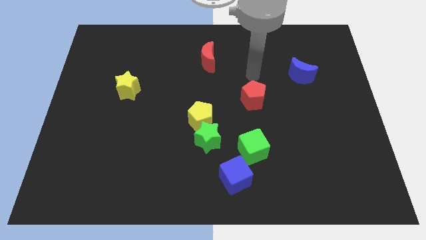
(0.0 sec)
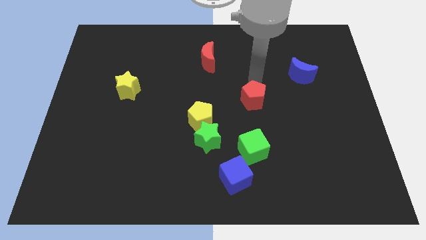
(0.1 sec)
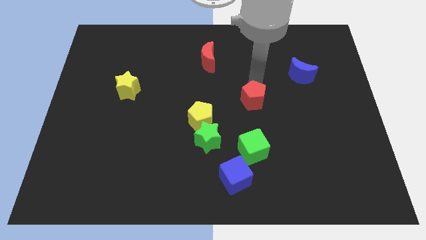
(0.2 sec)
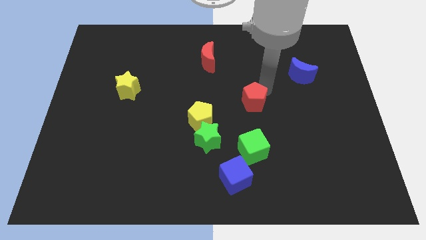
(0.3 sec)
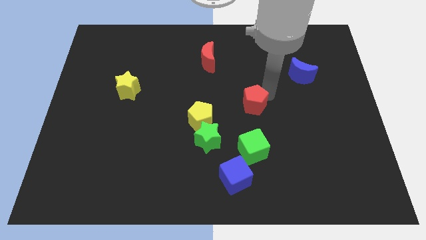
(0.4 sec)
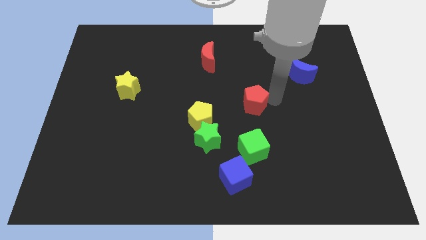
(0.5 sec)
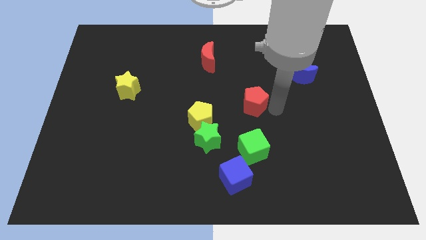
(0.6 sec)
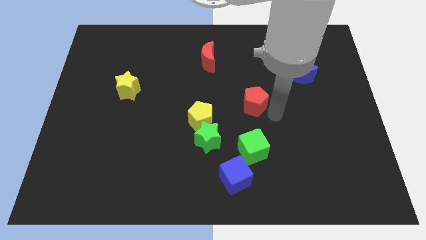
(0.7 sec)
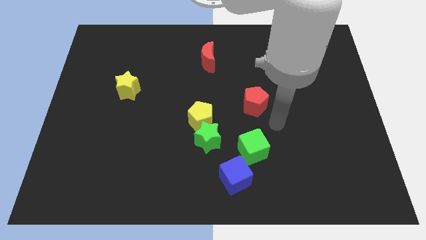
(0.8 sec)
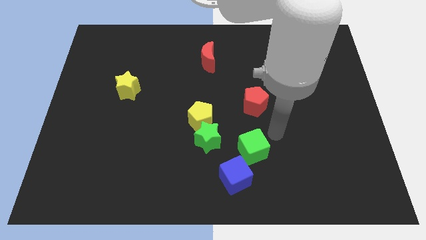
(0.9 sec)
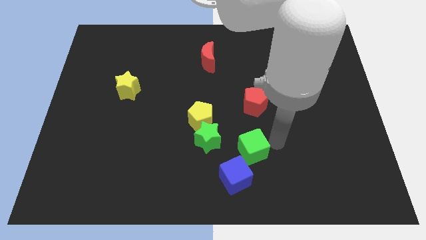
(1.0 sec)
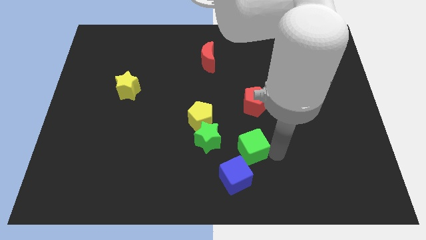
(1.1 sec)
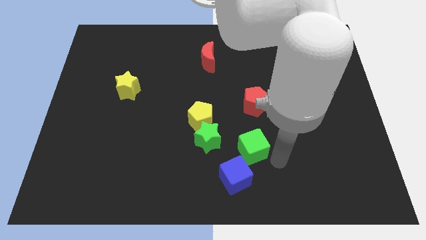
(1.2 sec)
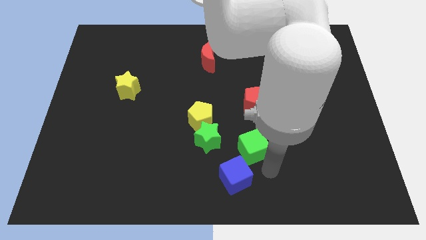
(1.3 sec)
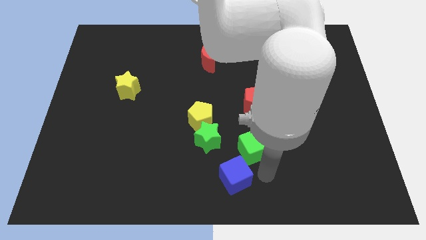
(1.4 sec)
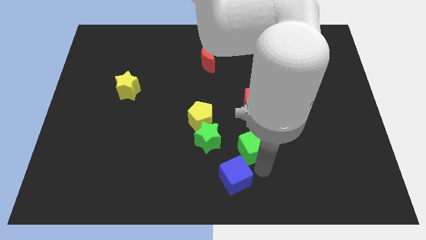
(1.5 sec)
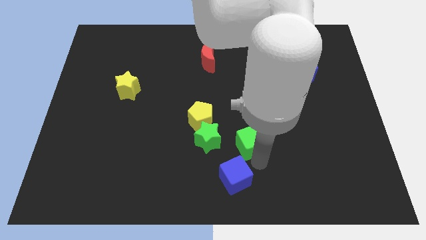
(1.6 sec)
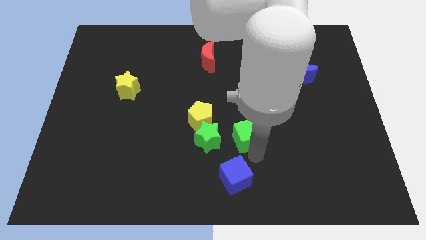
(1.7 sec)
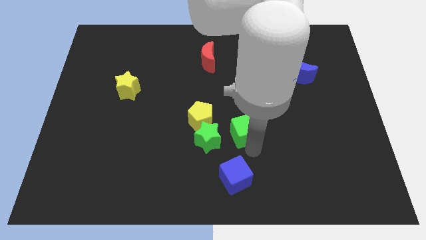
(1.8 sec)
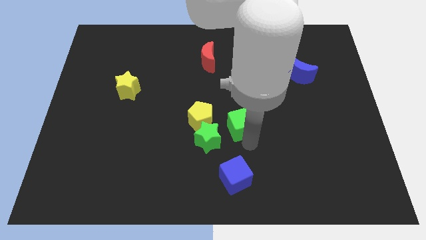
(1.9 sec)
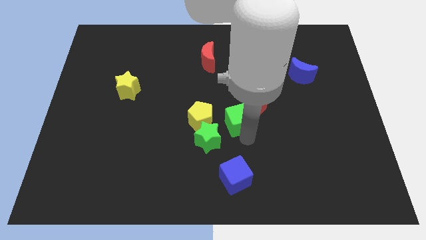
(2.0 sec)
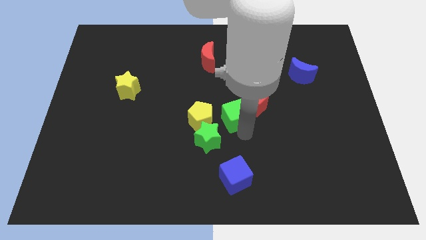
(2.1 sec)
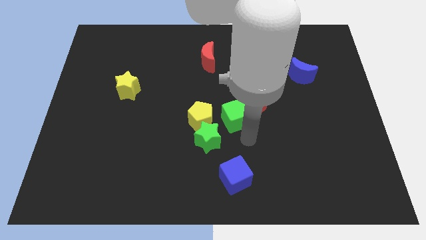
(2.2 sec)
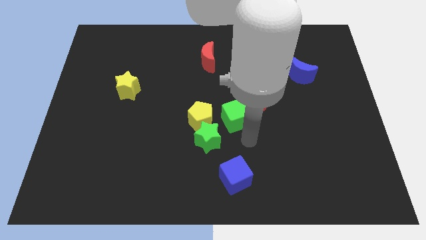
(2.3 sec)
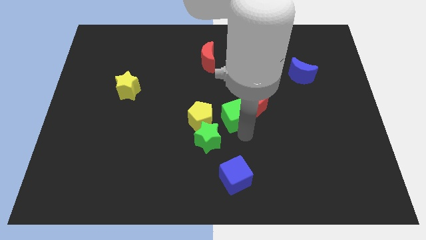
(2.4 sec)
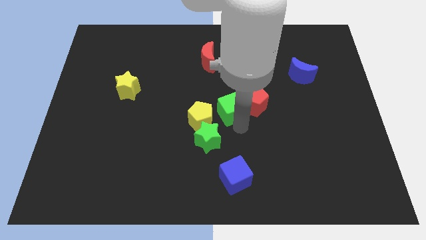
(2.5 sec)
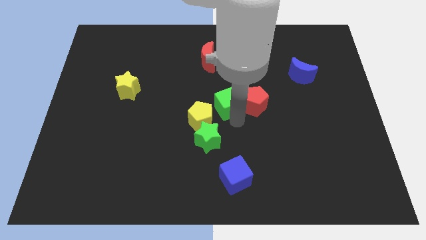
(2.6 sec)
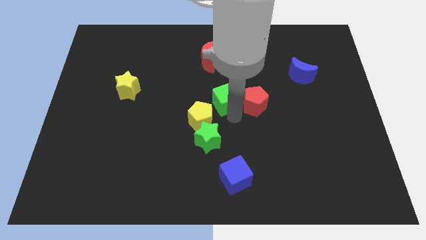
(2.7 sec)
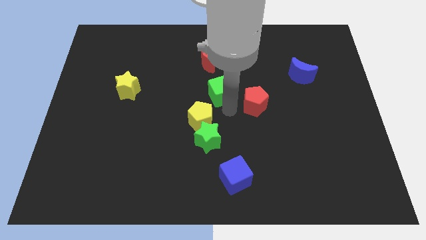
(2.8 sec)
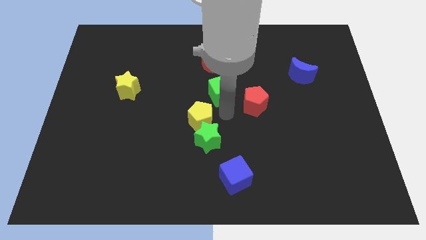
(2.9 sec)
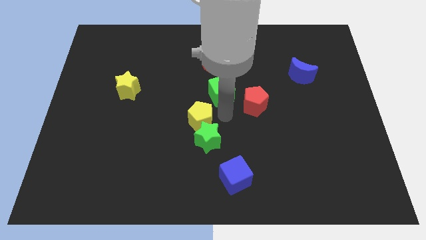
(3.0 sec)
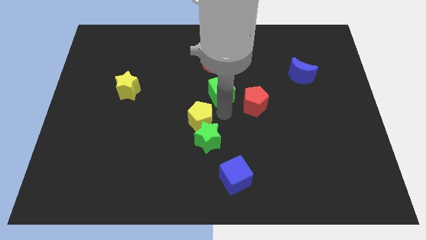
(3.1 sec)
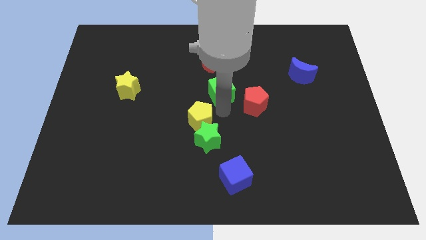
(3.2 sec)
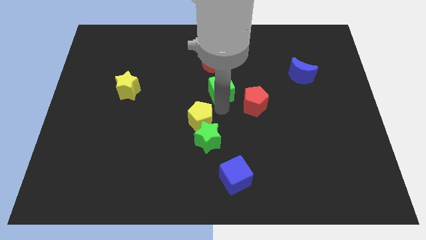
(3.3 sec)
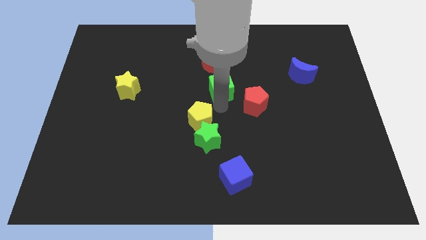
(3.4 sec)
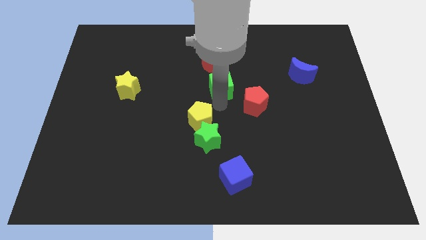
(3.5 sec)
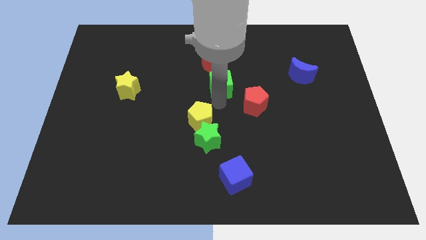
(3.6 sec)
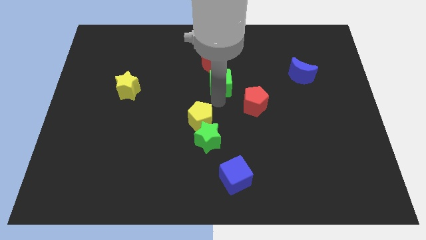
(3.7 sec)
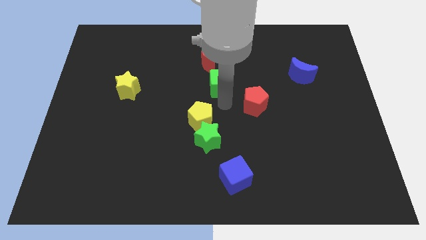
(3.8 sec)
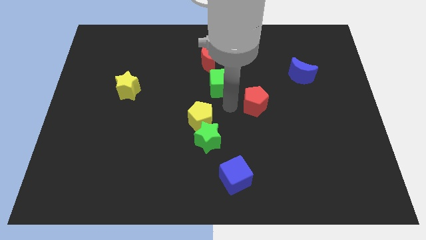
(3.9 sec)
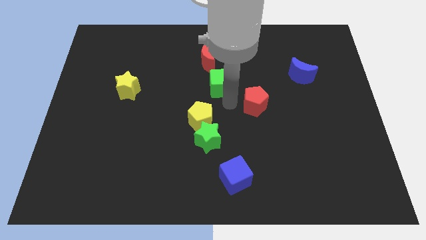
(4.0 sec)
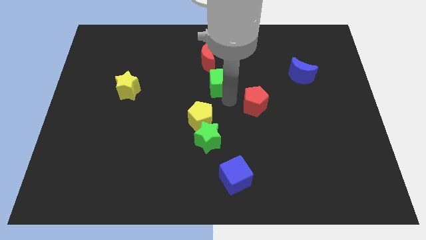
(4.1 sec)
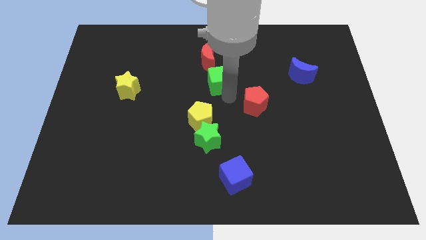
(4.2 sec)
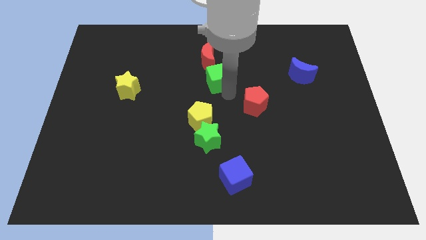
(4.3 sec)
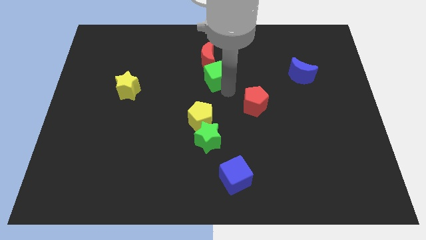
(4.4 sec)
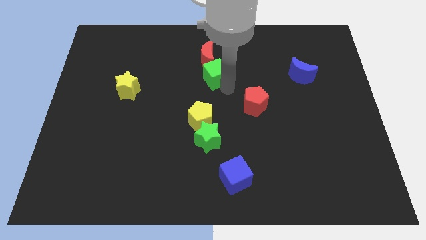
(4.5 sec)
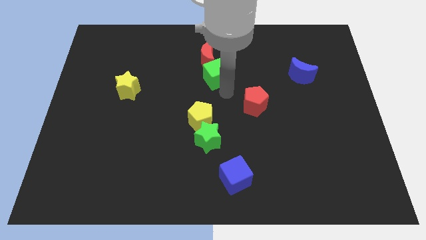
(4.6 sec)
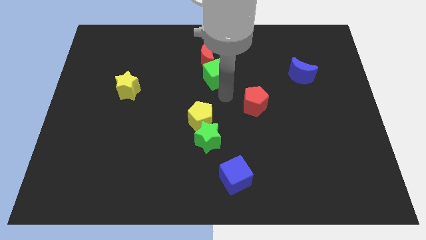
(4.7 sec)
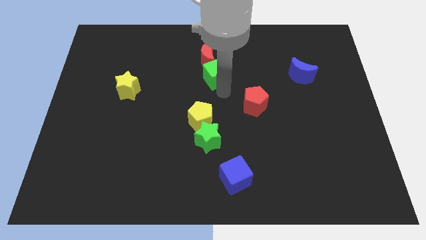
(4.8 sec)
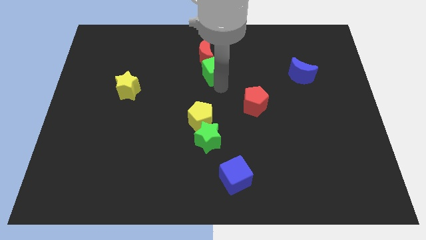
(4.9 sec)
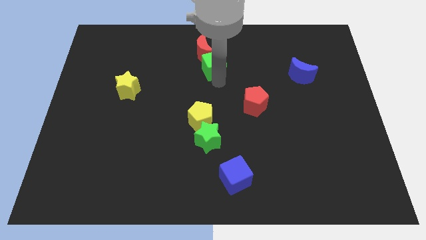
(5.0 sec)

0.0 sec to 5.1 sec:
move the green cube to the red moon

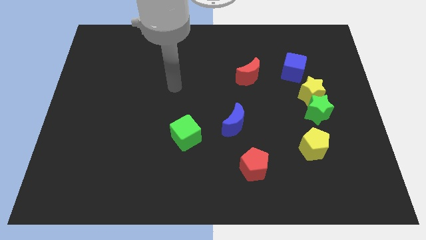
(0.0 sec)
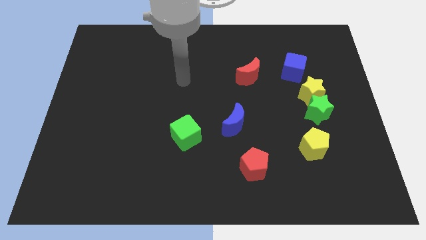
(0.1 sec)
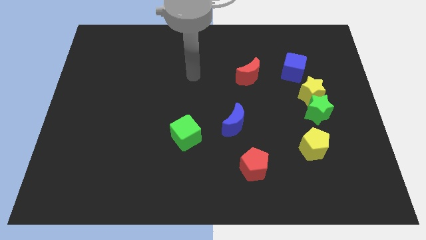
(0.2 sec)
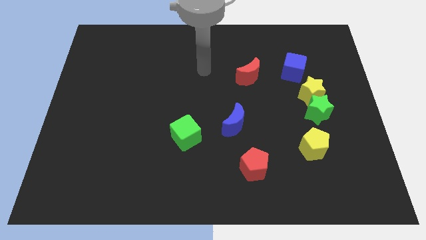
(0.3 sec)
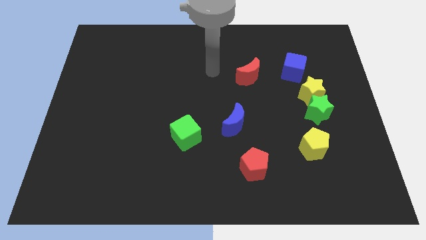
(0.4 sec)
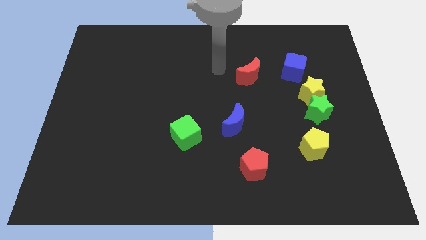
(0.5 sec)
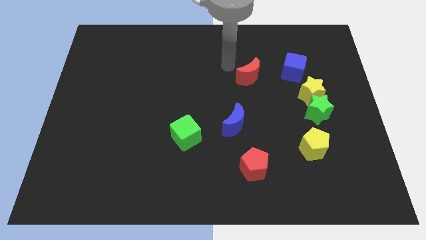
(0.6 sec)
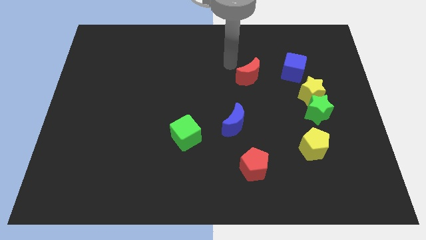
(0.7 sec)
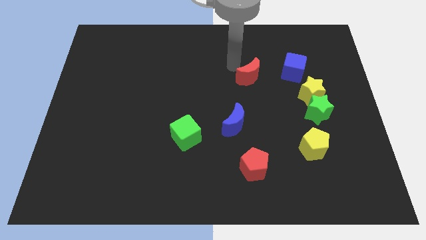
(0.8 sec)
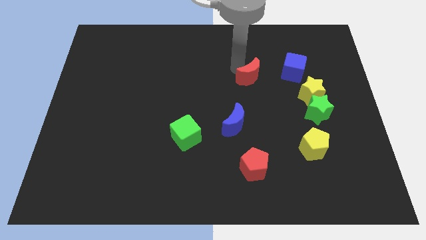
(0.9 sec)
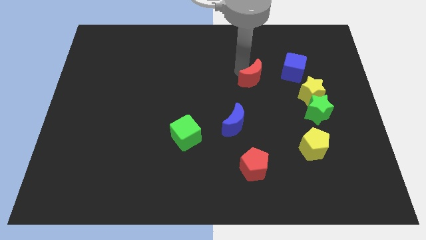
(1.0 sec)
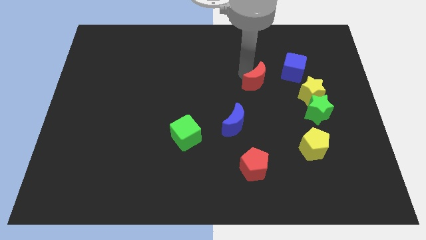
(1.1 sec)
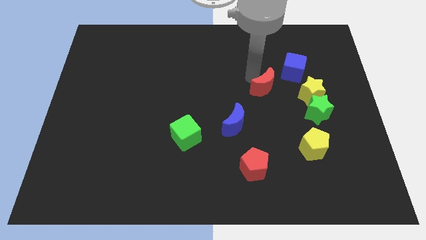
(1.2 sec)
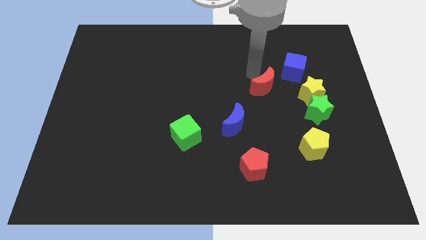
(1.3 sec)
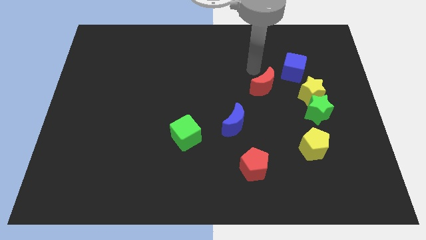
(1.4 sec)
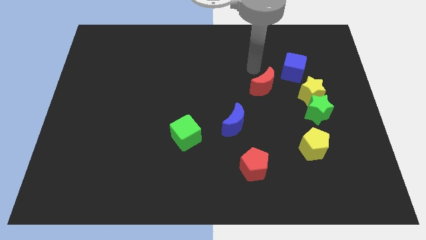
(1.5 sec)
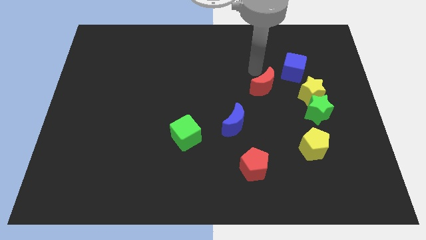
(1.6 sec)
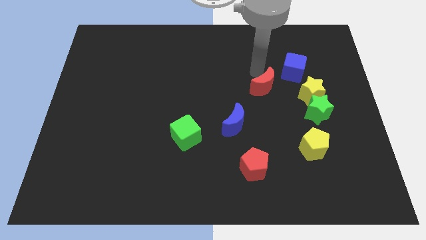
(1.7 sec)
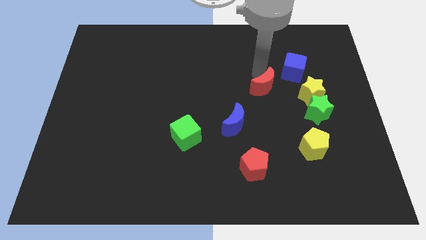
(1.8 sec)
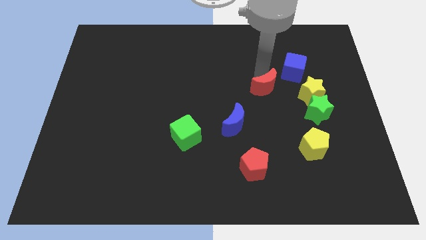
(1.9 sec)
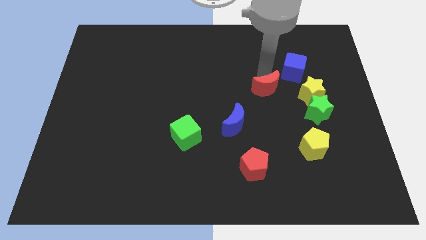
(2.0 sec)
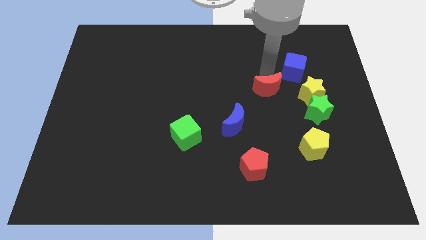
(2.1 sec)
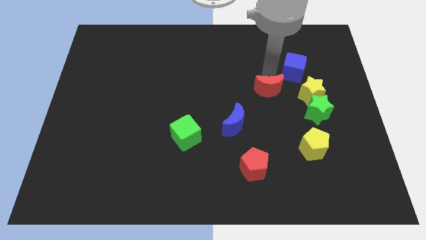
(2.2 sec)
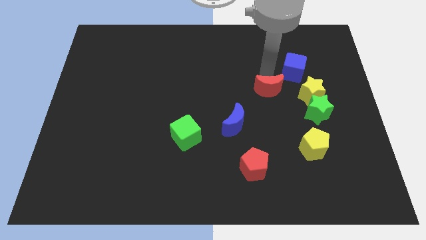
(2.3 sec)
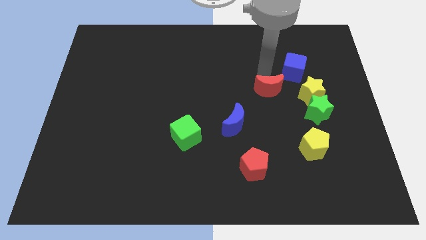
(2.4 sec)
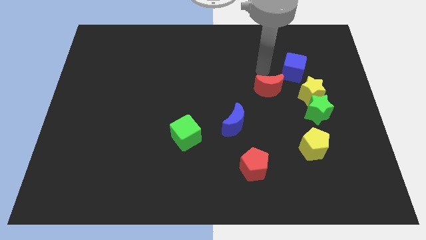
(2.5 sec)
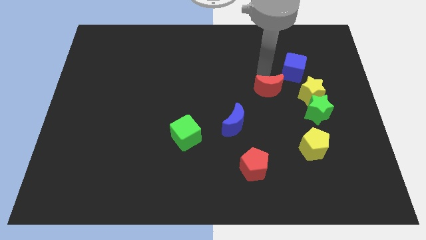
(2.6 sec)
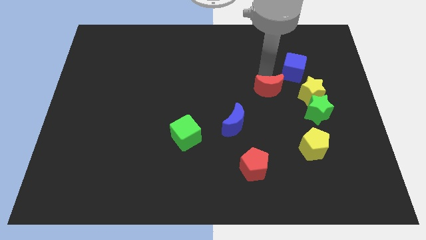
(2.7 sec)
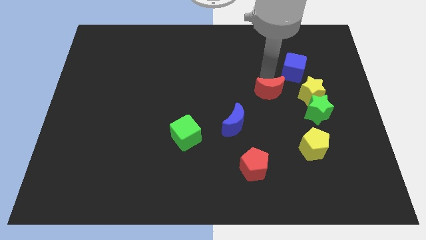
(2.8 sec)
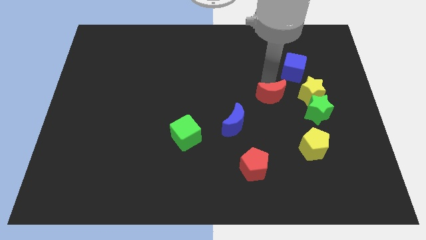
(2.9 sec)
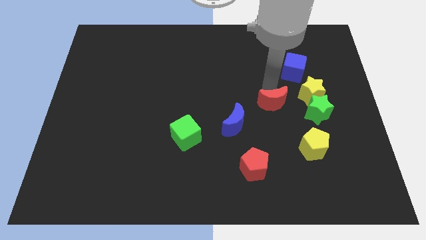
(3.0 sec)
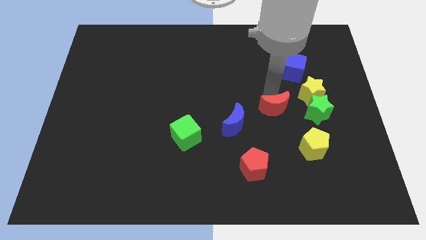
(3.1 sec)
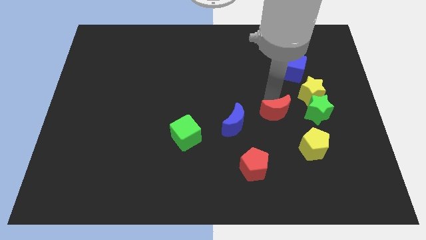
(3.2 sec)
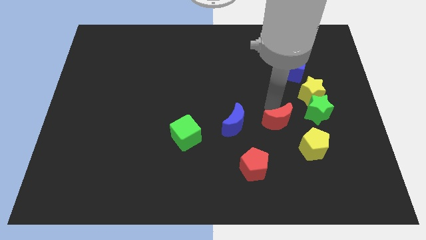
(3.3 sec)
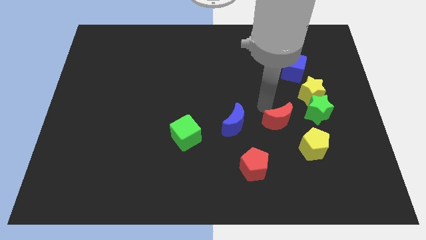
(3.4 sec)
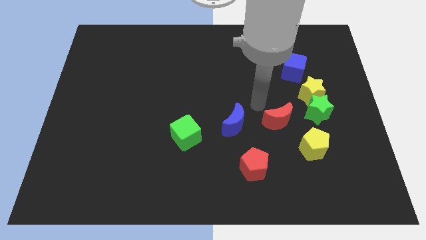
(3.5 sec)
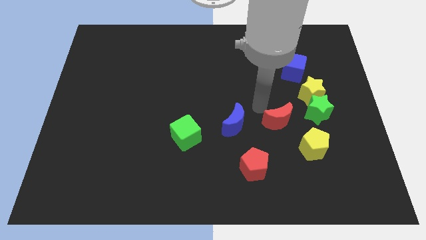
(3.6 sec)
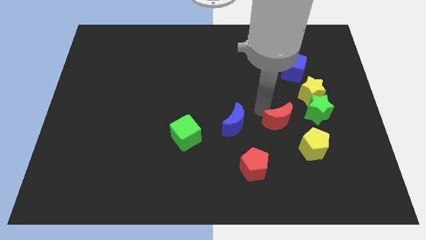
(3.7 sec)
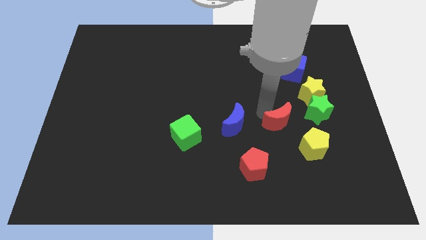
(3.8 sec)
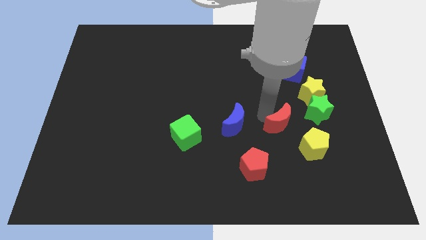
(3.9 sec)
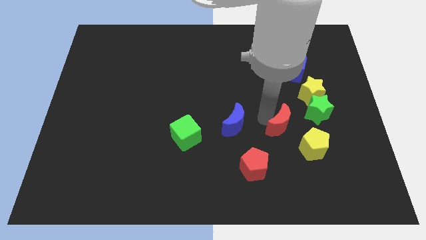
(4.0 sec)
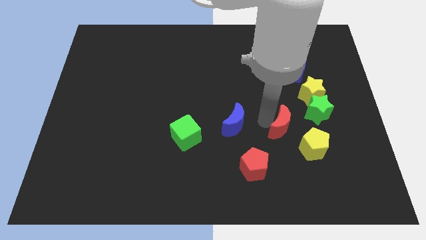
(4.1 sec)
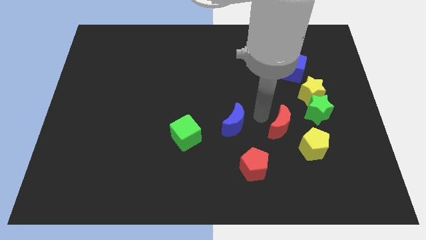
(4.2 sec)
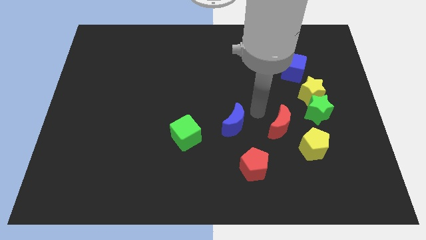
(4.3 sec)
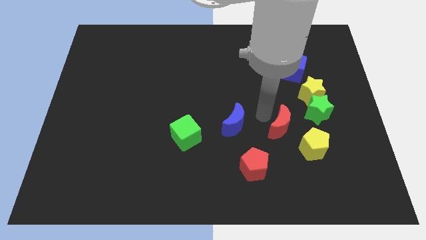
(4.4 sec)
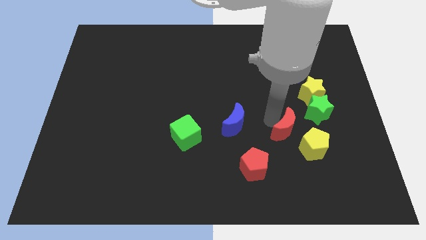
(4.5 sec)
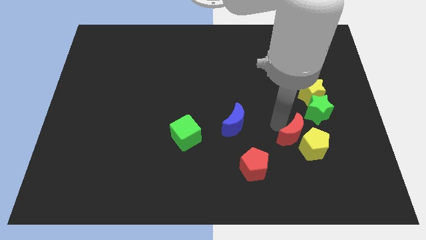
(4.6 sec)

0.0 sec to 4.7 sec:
push the red moon close to the yellow pentagon
